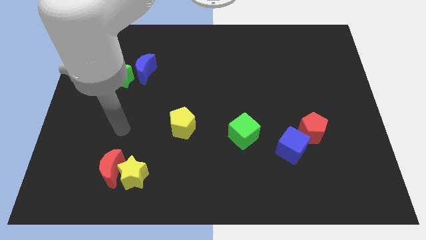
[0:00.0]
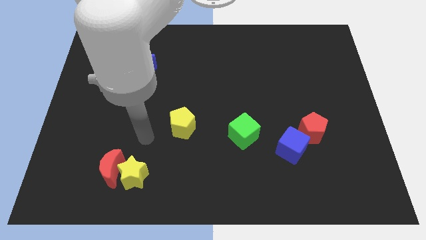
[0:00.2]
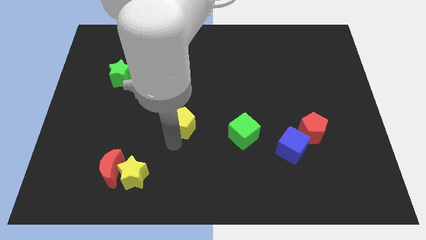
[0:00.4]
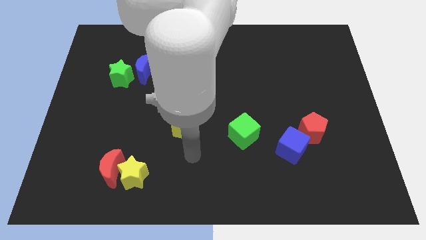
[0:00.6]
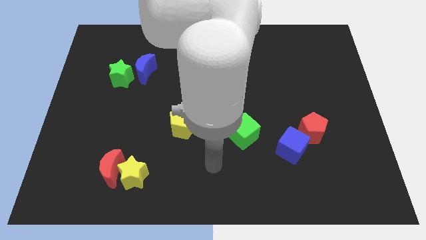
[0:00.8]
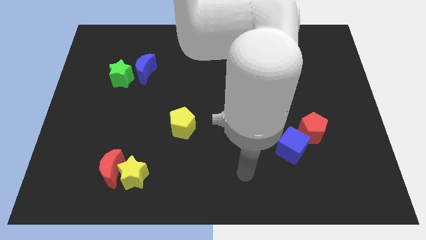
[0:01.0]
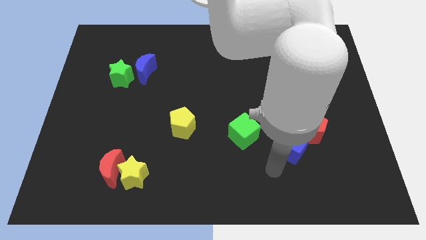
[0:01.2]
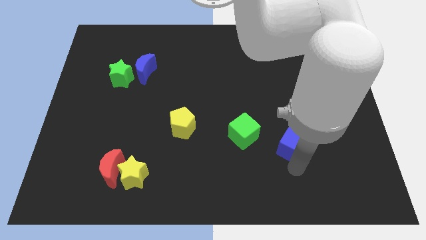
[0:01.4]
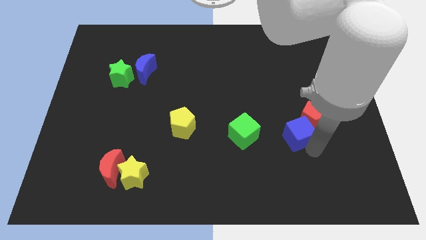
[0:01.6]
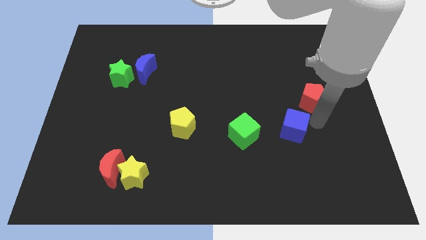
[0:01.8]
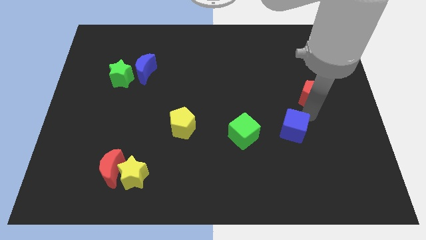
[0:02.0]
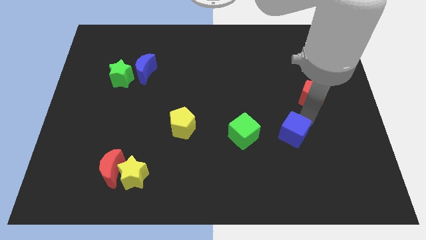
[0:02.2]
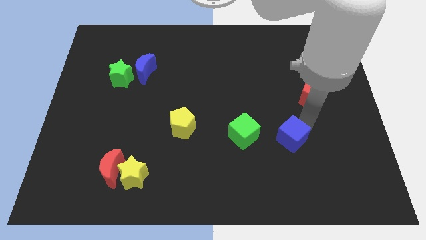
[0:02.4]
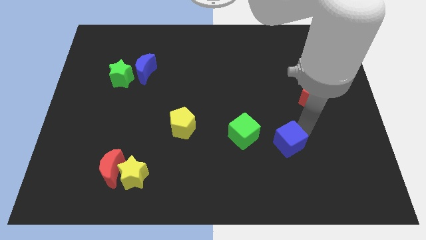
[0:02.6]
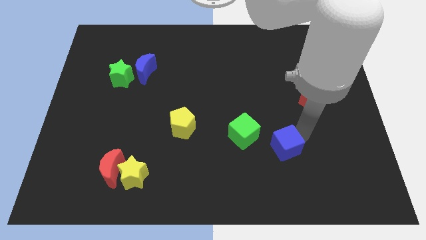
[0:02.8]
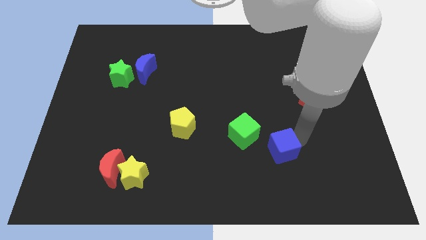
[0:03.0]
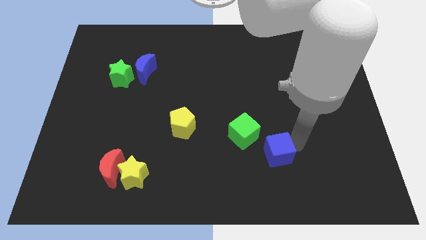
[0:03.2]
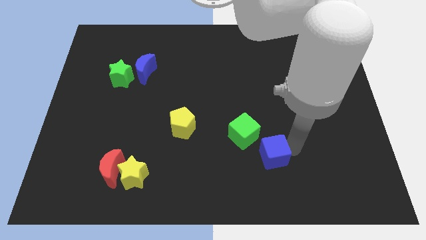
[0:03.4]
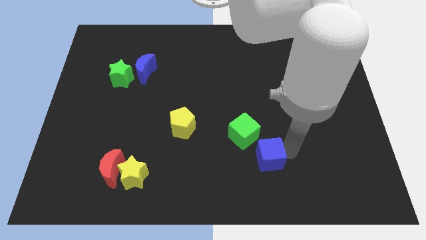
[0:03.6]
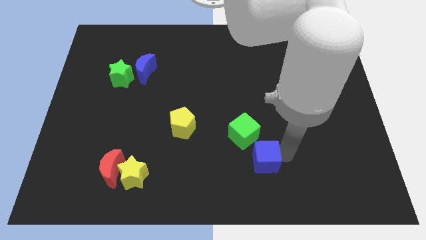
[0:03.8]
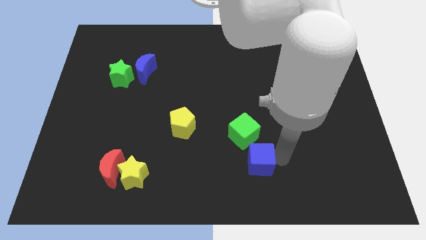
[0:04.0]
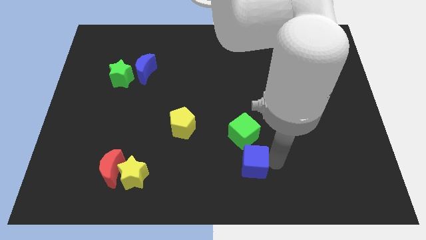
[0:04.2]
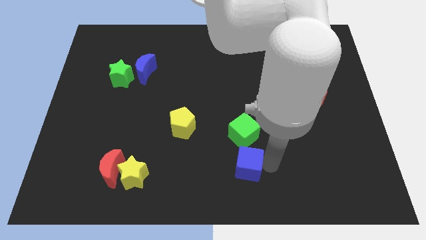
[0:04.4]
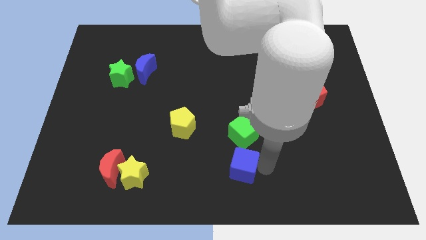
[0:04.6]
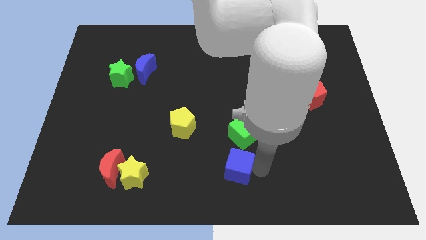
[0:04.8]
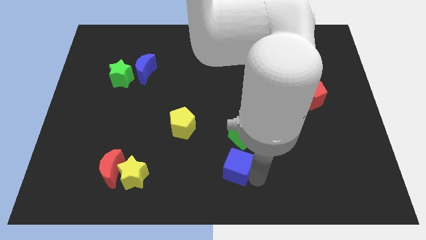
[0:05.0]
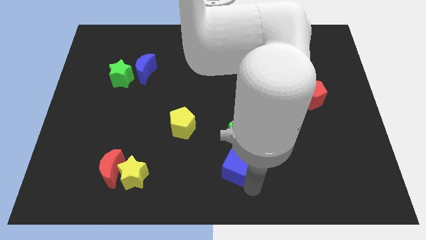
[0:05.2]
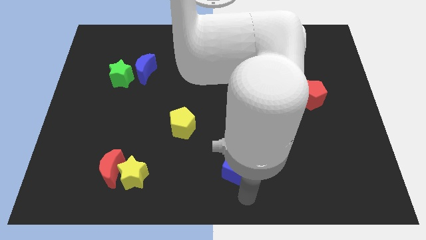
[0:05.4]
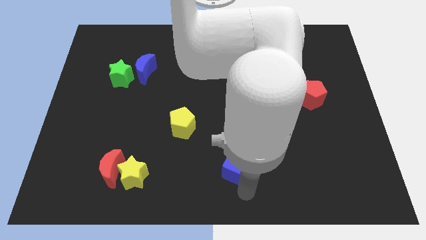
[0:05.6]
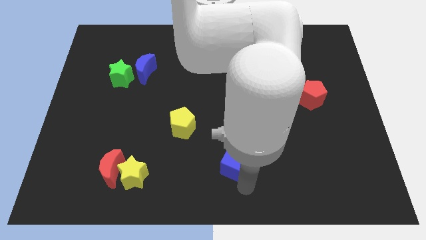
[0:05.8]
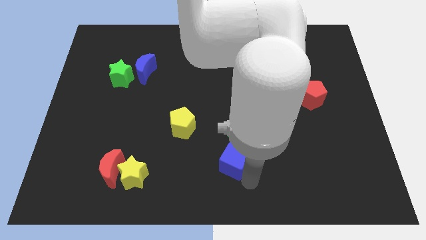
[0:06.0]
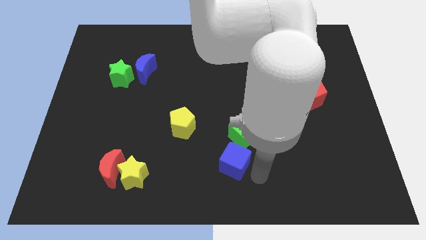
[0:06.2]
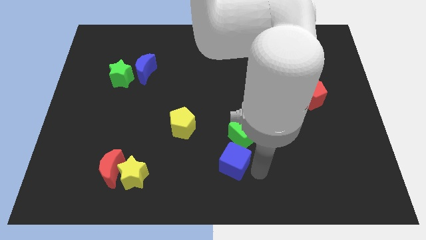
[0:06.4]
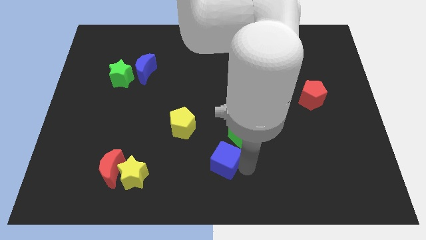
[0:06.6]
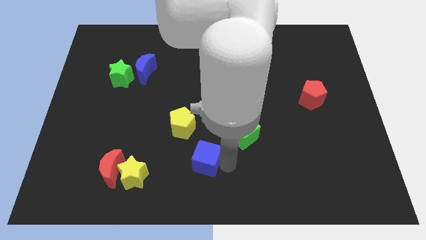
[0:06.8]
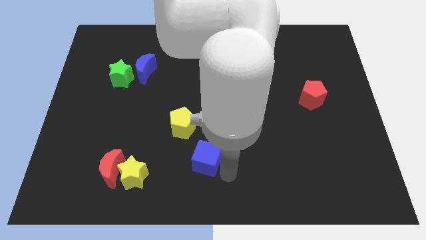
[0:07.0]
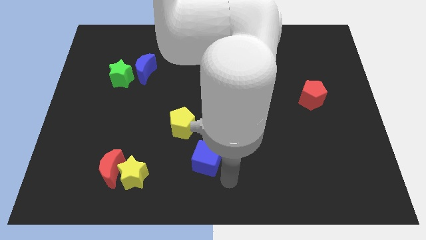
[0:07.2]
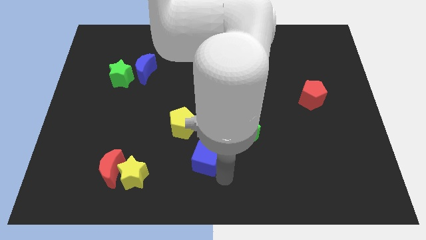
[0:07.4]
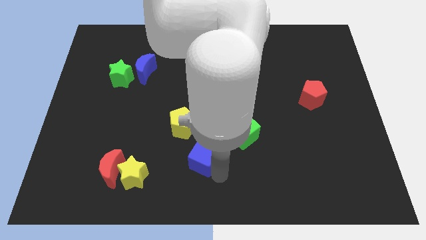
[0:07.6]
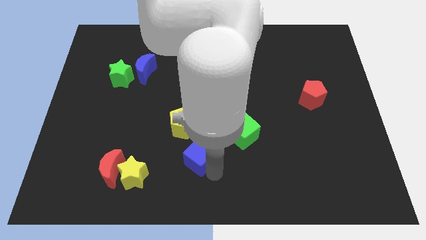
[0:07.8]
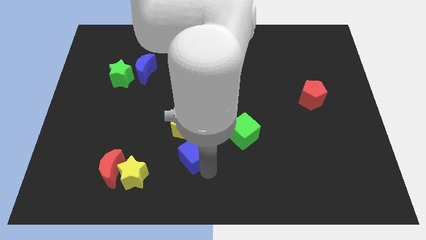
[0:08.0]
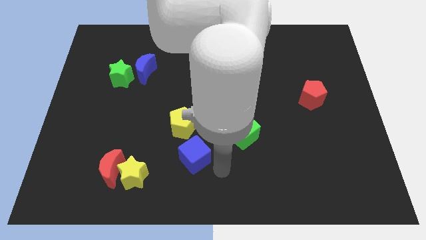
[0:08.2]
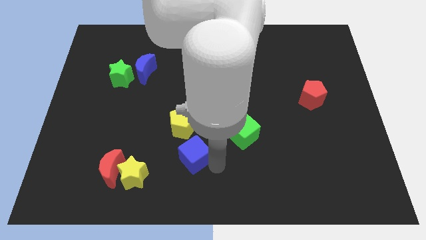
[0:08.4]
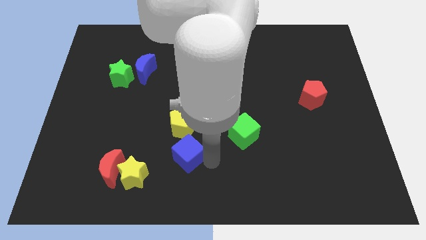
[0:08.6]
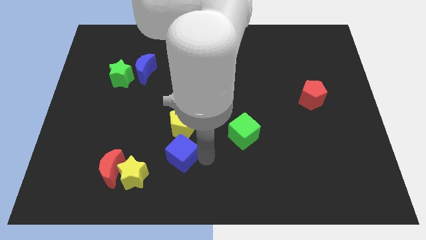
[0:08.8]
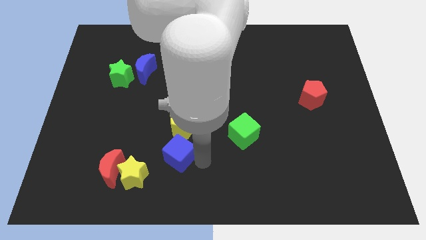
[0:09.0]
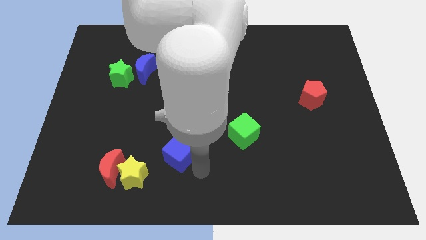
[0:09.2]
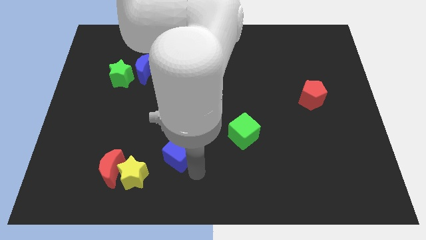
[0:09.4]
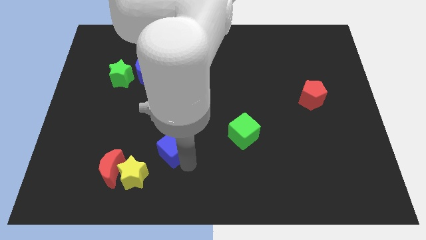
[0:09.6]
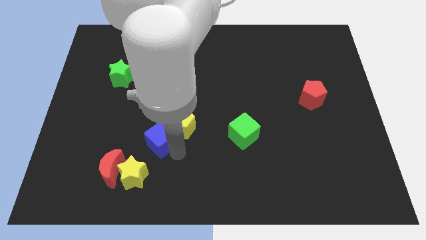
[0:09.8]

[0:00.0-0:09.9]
move the blue cube left of the yellow pentagon

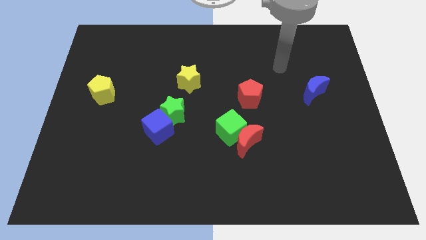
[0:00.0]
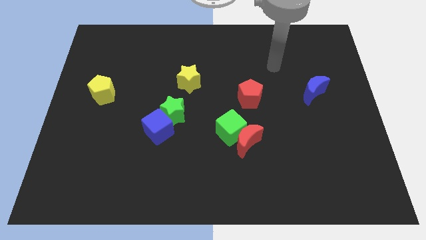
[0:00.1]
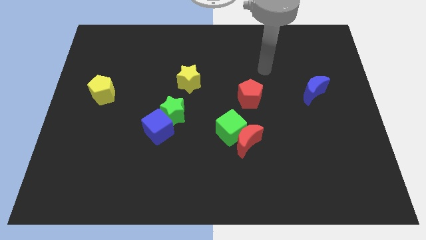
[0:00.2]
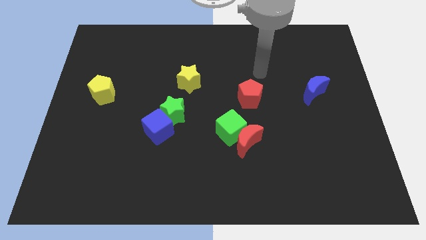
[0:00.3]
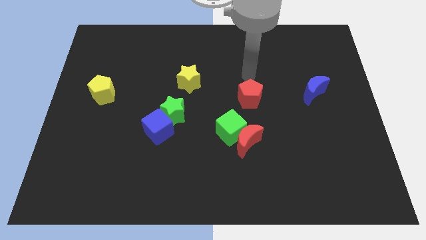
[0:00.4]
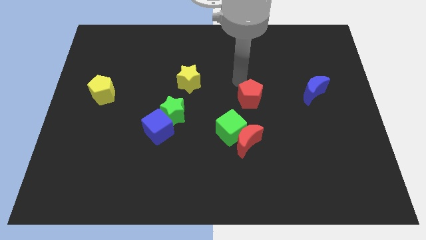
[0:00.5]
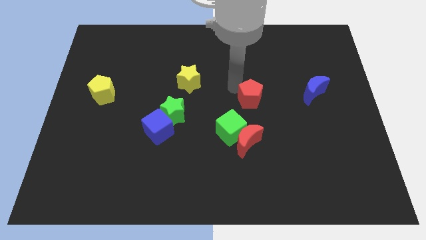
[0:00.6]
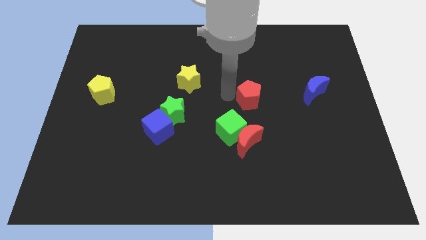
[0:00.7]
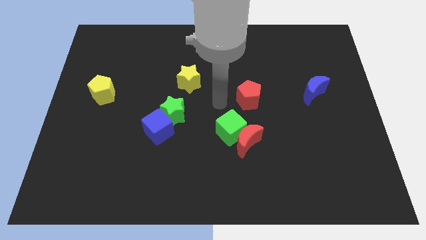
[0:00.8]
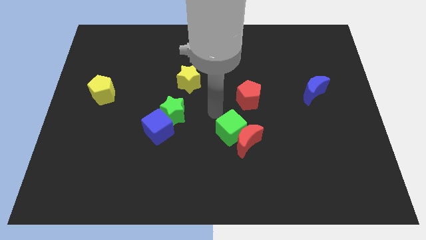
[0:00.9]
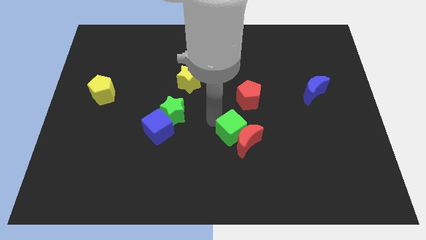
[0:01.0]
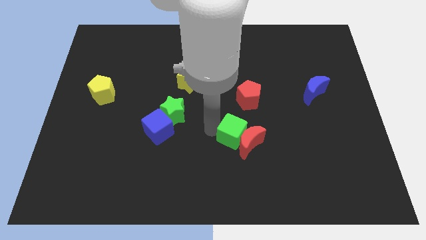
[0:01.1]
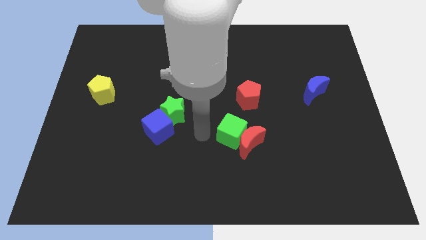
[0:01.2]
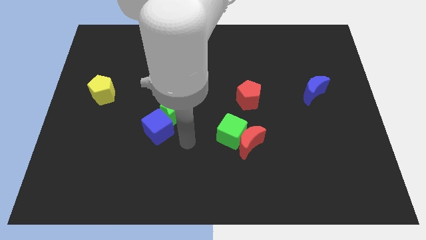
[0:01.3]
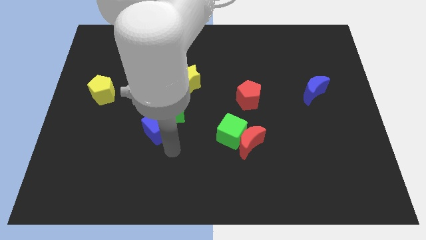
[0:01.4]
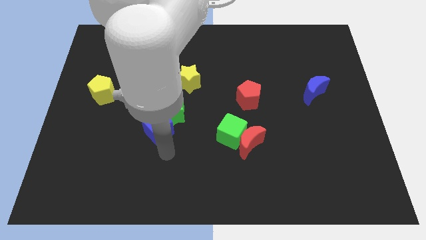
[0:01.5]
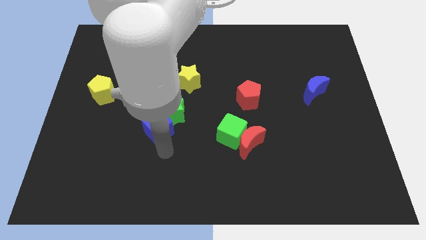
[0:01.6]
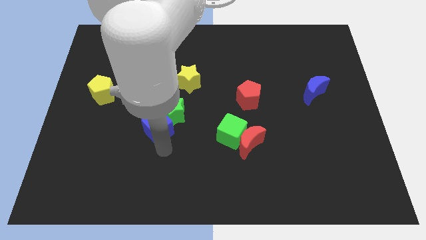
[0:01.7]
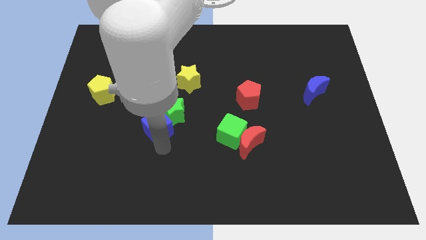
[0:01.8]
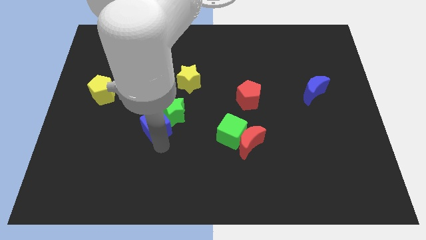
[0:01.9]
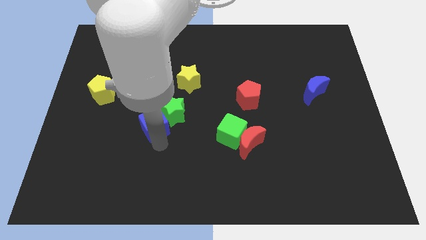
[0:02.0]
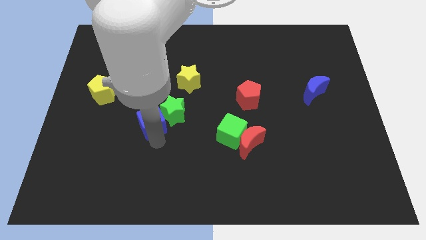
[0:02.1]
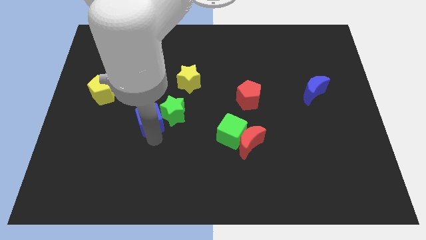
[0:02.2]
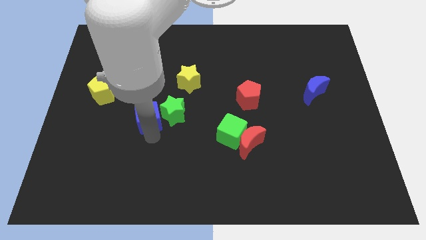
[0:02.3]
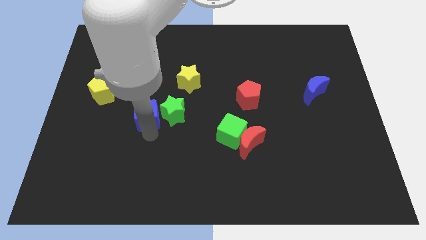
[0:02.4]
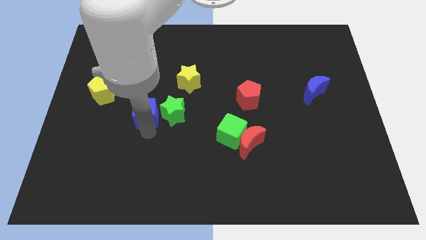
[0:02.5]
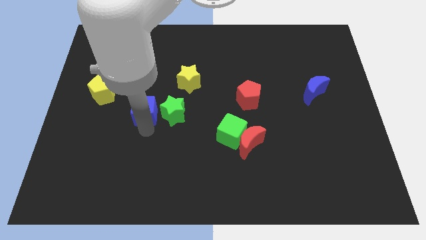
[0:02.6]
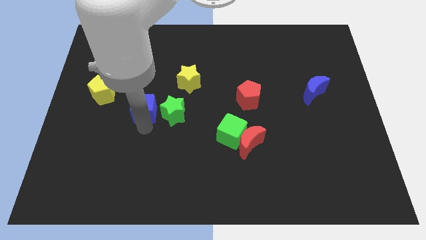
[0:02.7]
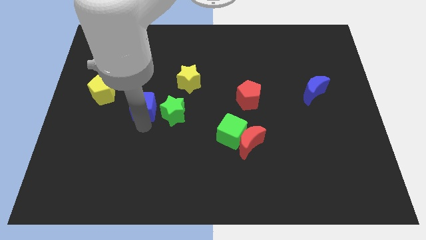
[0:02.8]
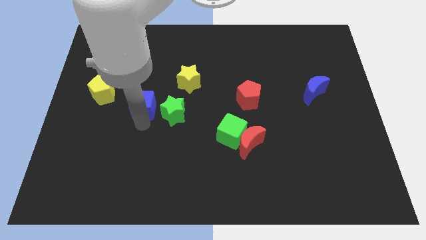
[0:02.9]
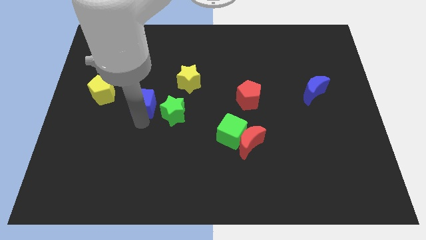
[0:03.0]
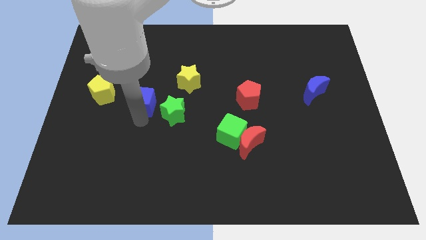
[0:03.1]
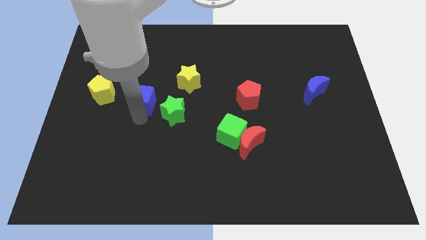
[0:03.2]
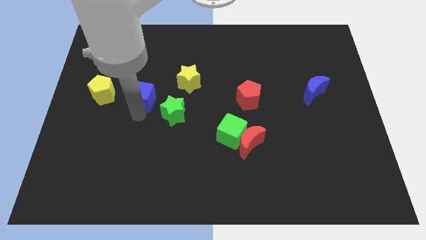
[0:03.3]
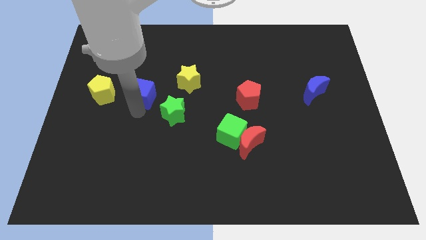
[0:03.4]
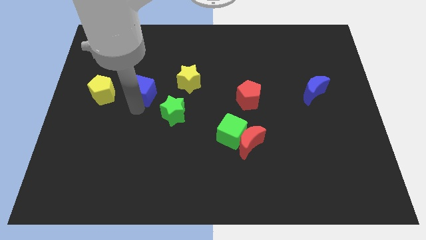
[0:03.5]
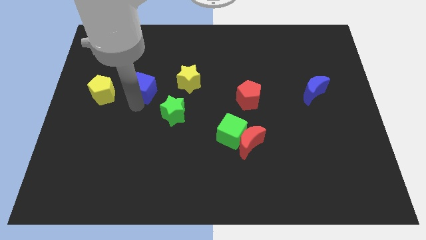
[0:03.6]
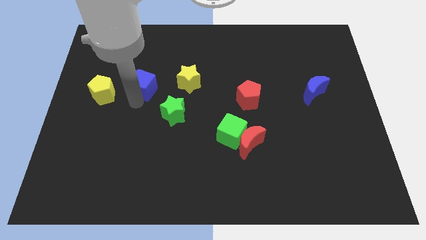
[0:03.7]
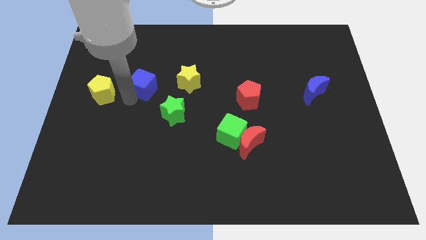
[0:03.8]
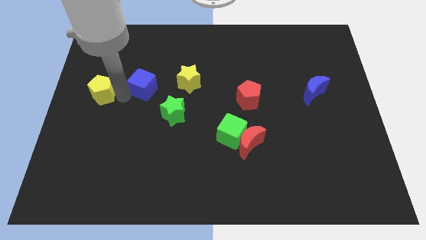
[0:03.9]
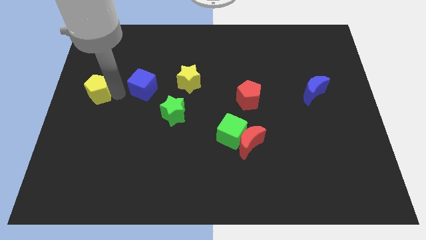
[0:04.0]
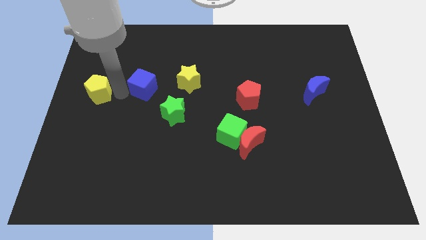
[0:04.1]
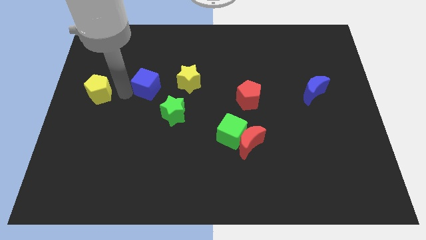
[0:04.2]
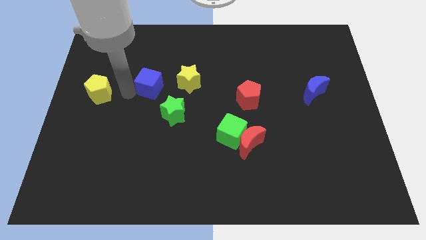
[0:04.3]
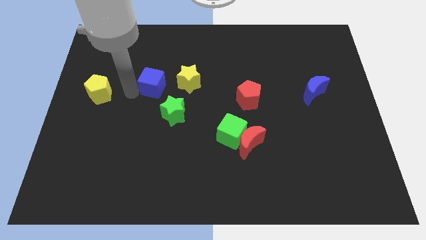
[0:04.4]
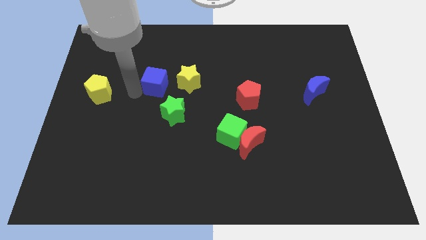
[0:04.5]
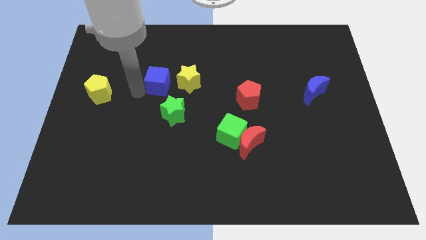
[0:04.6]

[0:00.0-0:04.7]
slide the blue cube to the top of the green star
